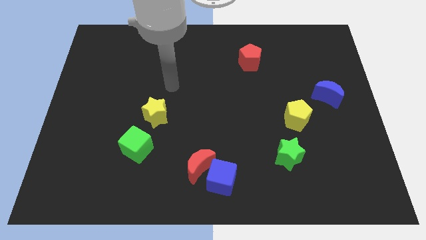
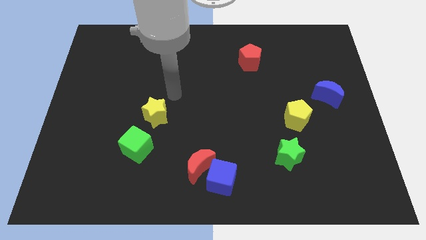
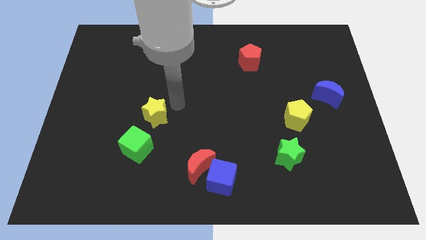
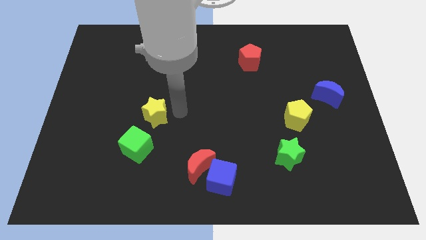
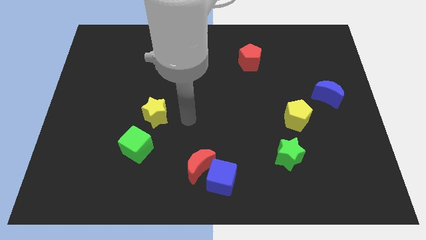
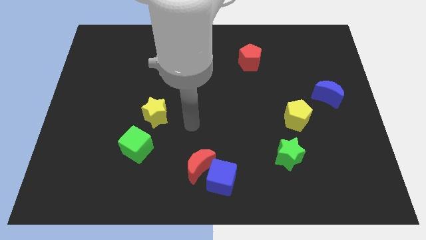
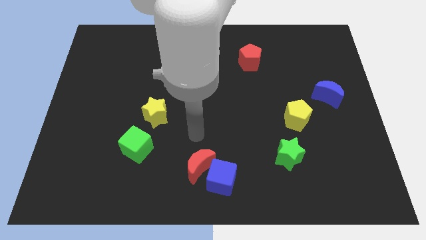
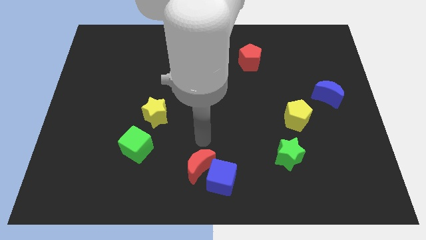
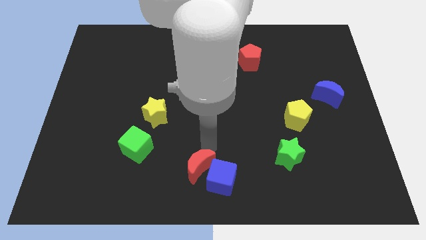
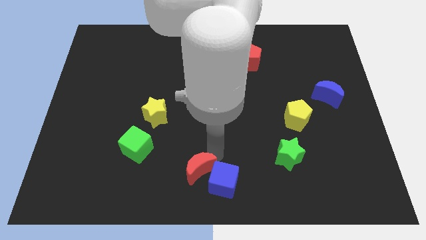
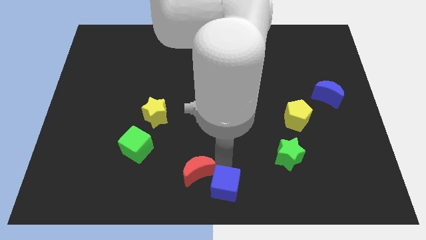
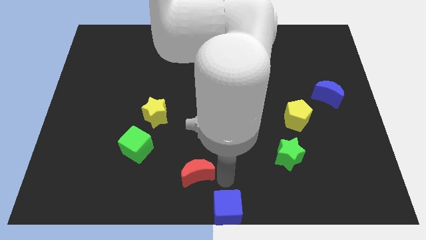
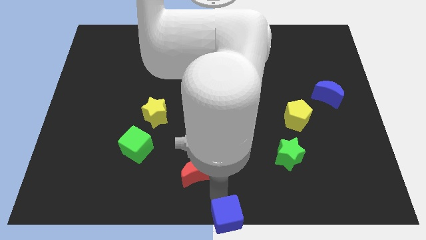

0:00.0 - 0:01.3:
move the red moon away from the blue cube

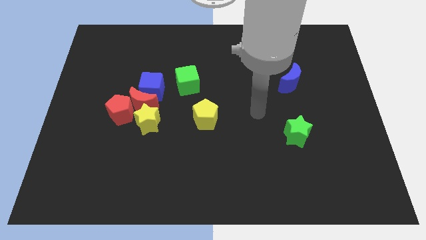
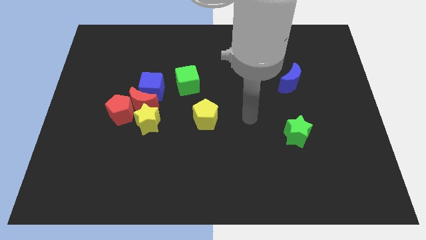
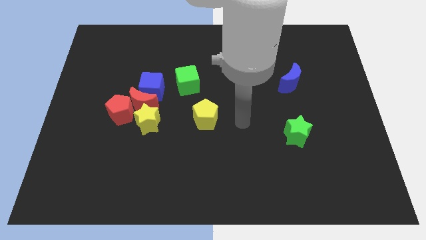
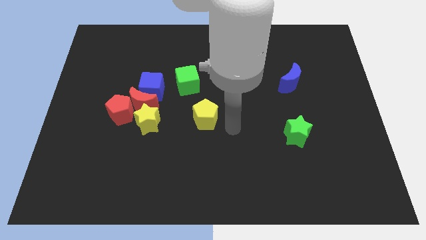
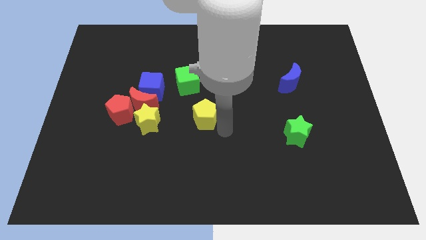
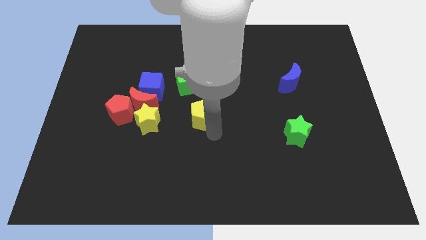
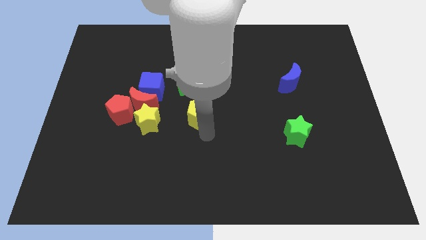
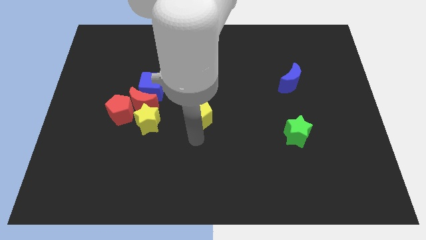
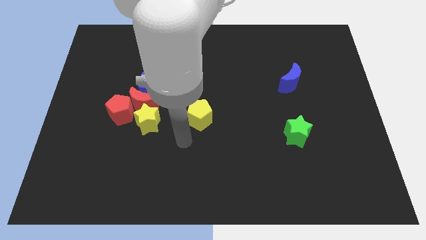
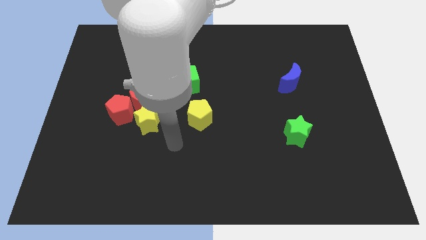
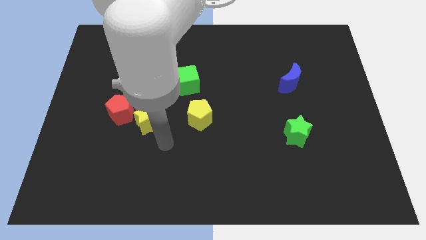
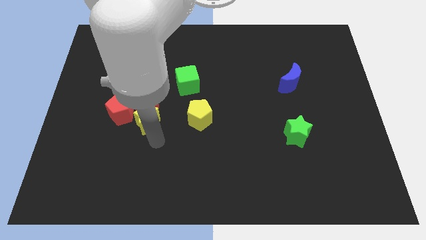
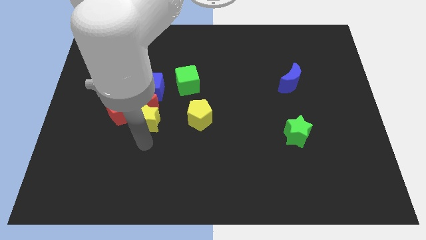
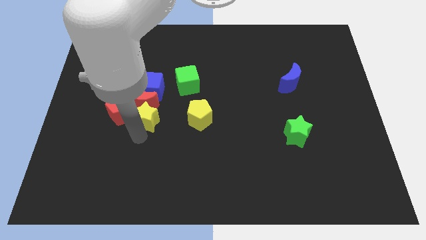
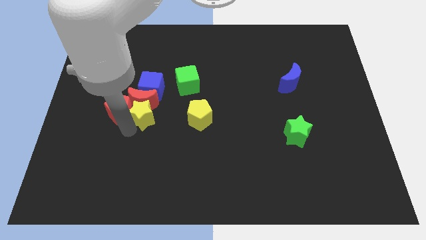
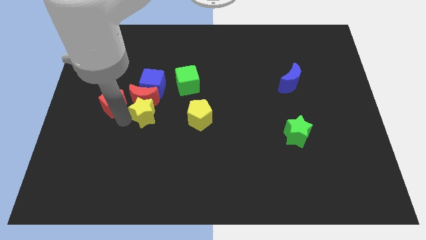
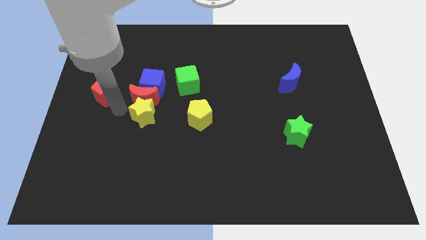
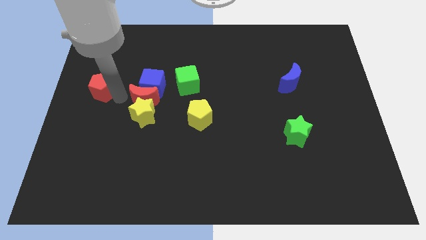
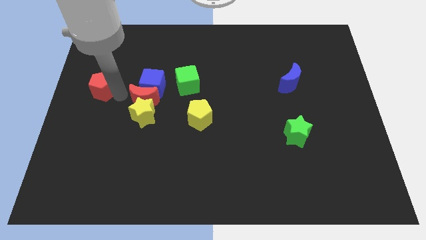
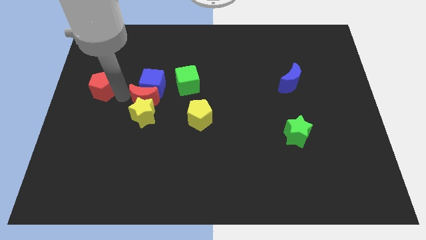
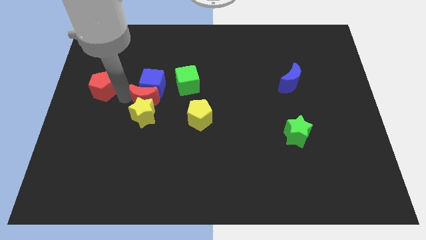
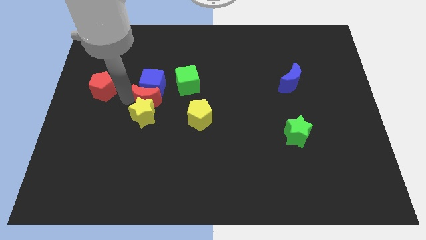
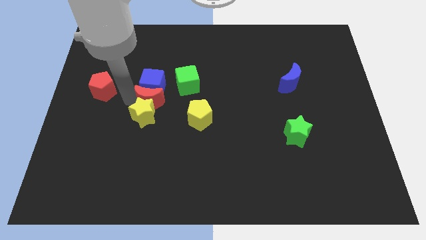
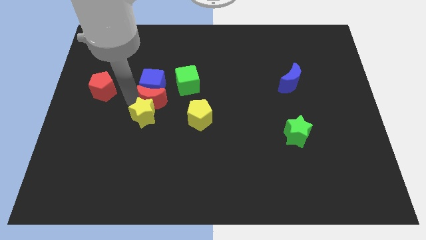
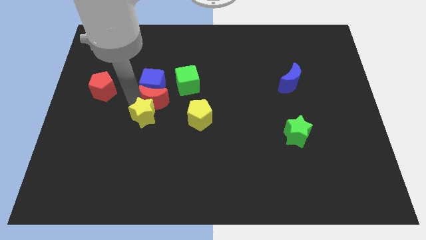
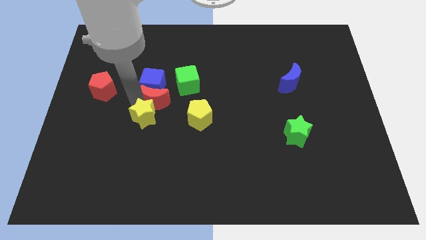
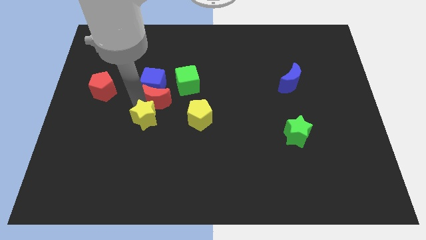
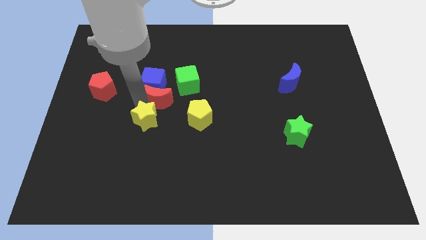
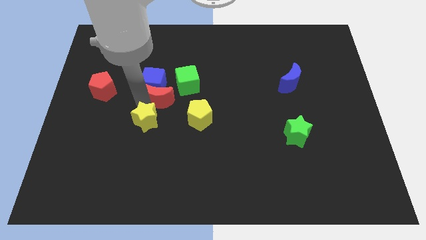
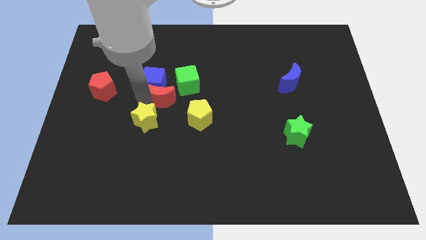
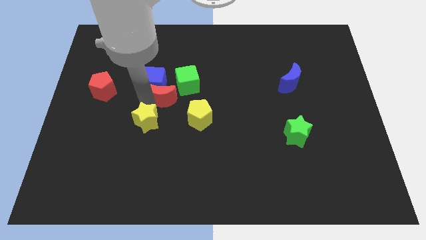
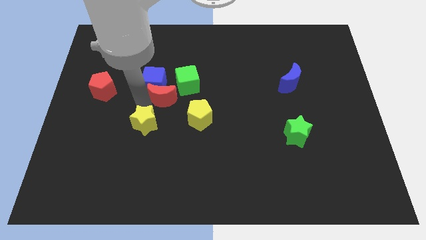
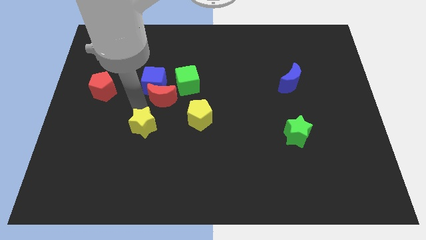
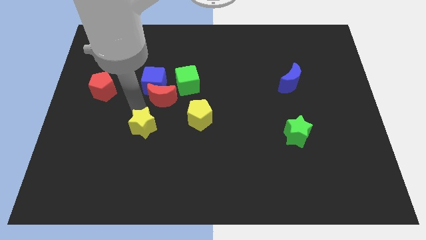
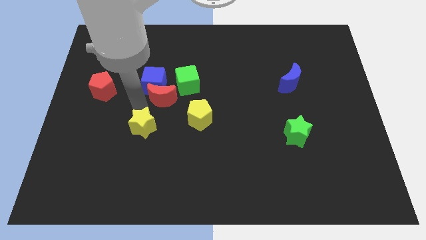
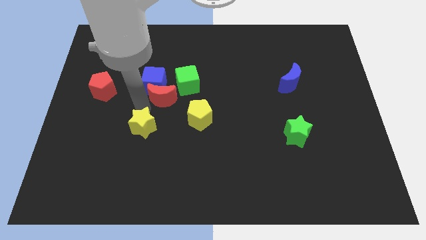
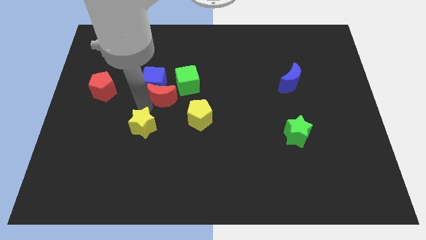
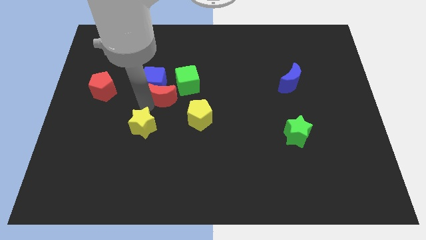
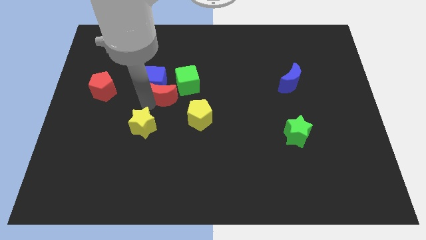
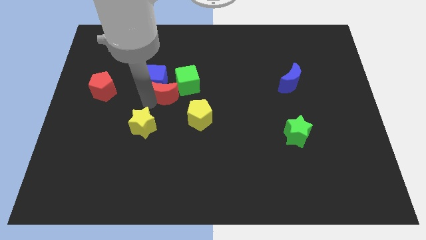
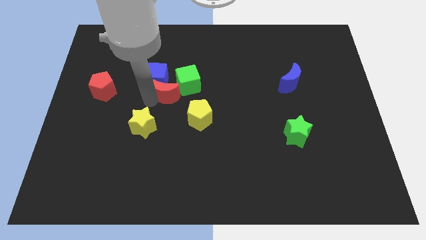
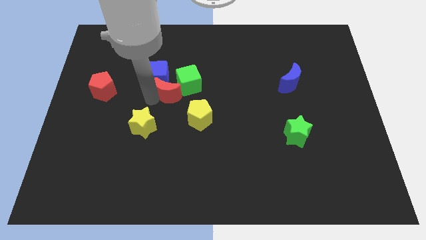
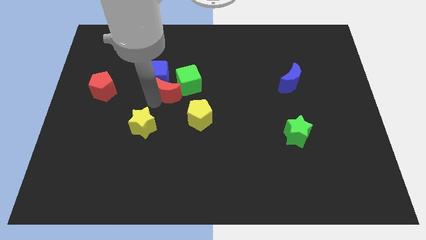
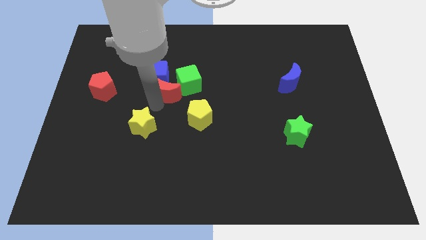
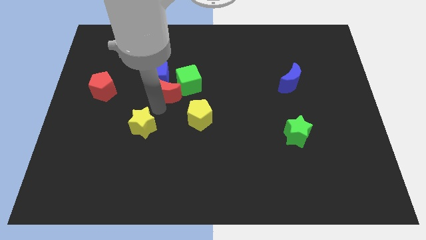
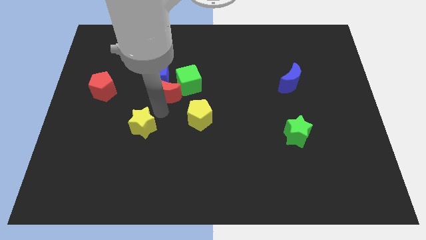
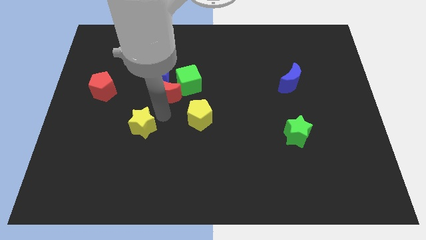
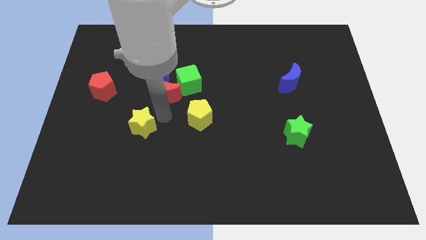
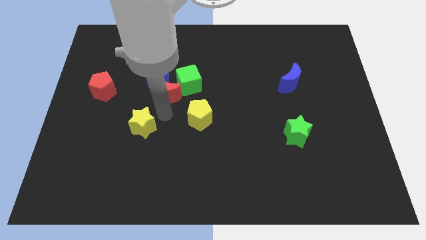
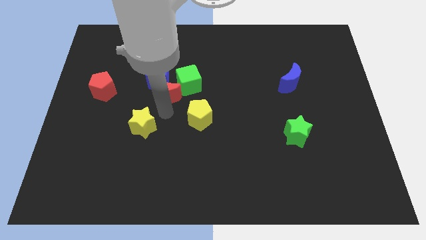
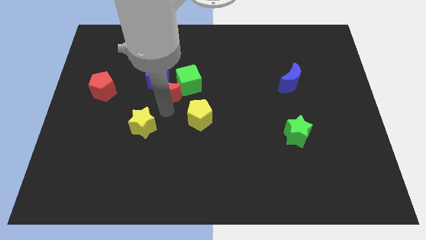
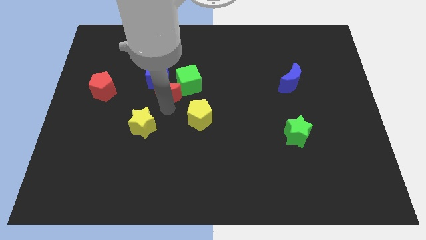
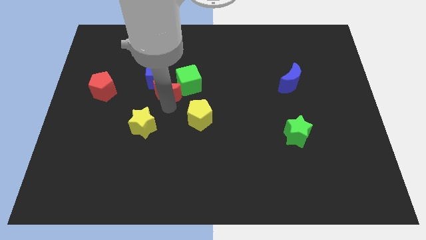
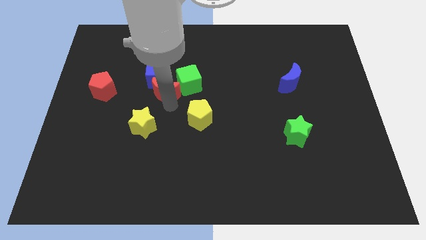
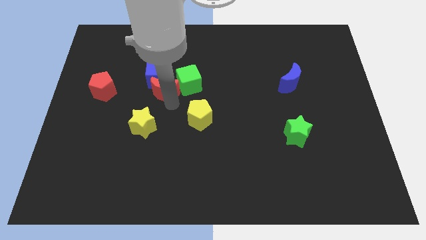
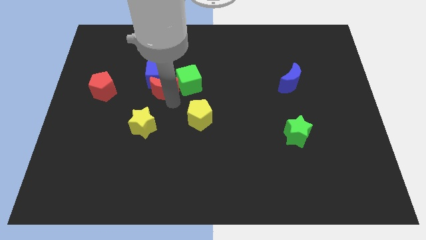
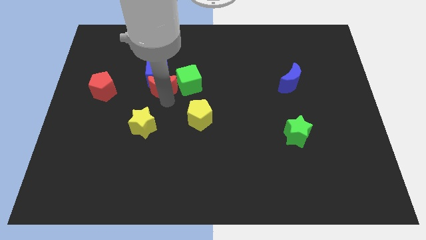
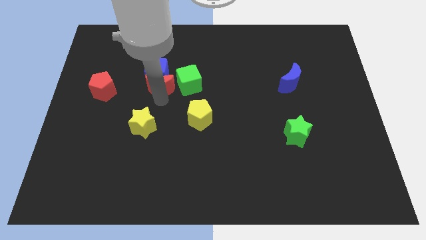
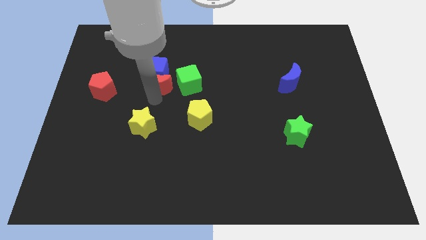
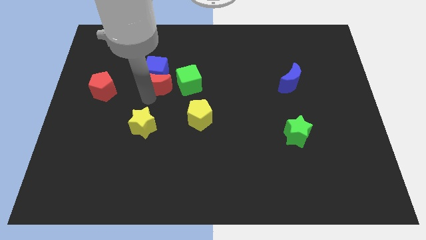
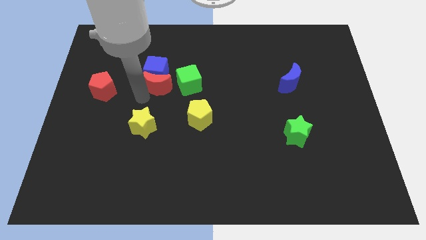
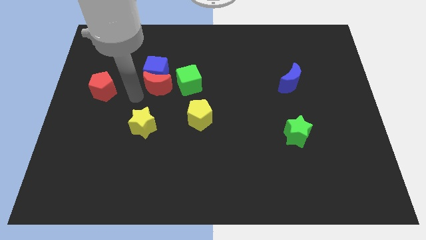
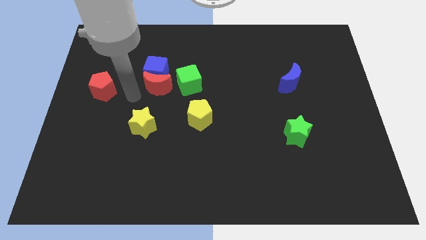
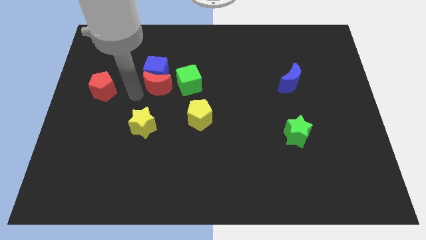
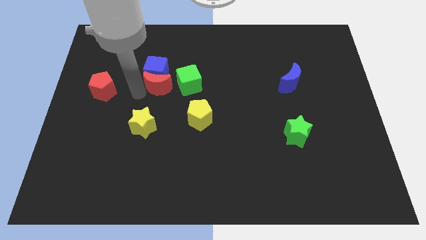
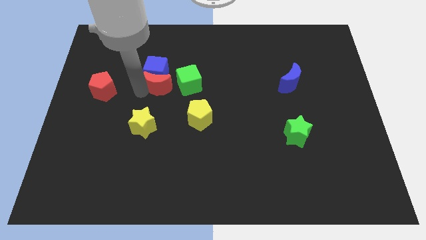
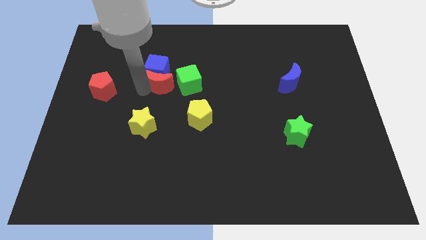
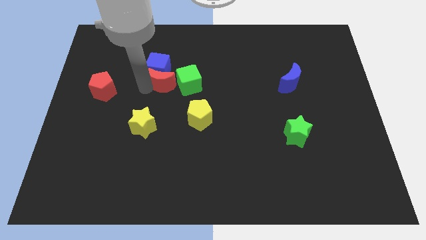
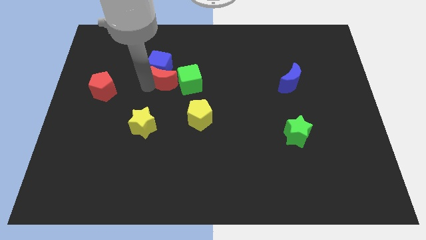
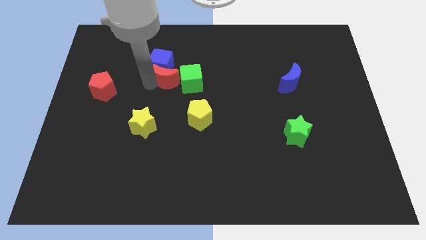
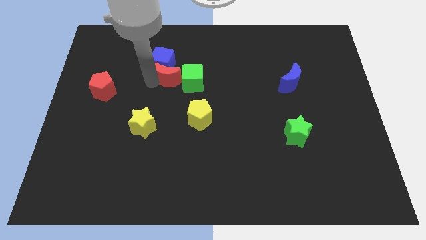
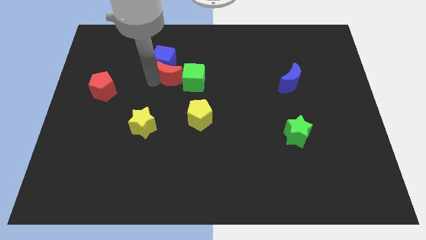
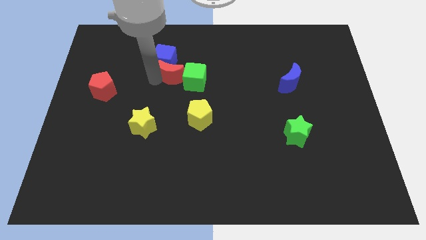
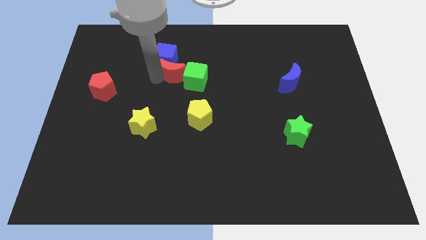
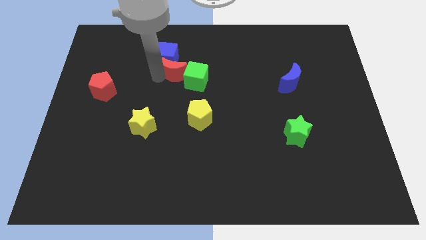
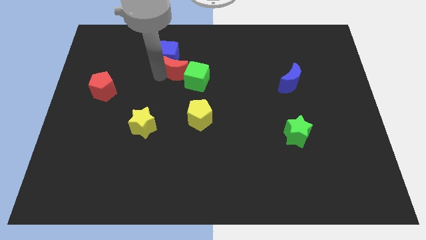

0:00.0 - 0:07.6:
pull the red moon apart from the blue cube, yellow star, and red pentagon

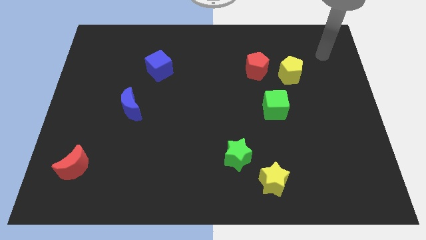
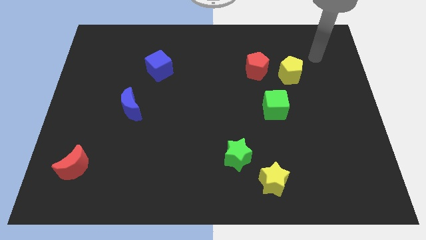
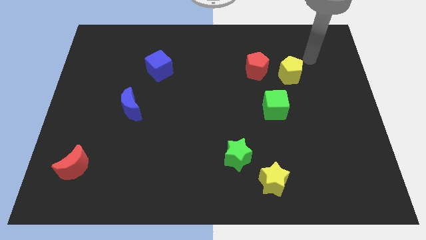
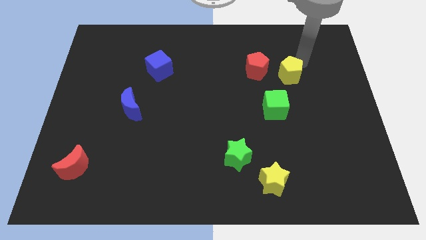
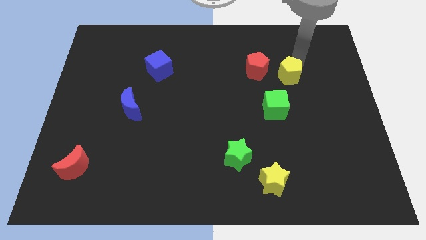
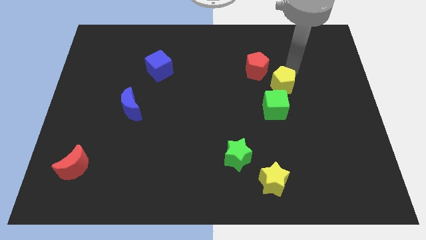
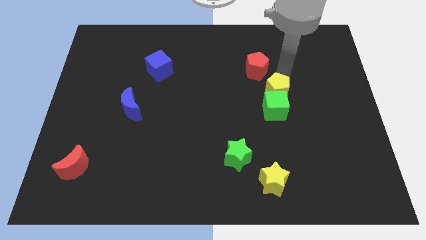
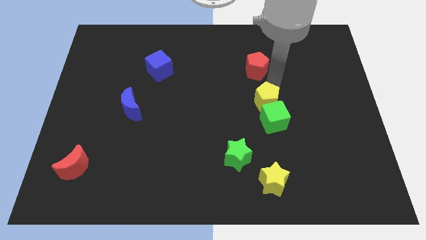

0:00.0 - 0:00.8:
pull the red pentagon apart from the yellow pentagon
